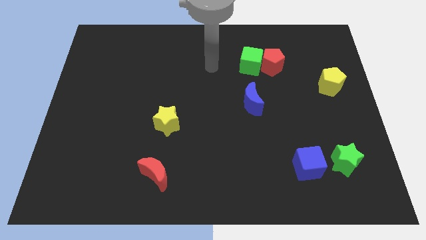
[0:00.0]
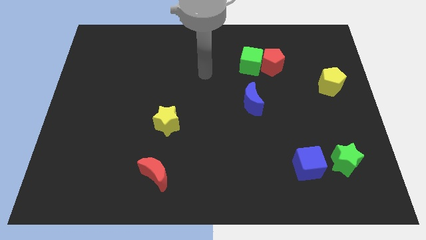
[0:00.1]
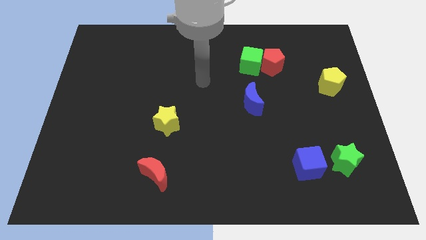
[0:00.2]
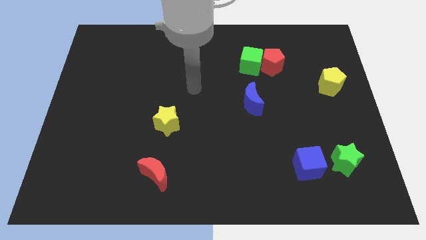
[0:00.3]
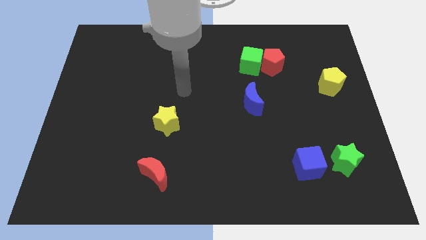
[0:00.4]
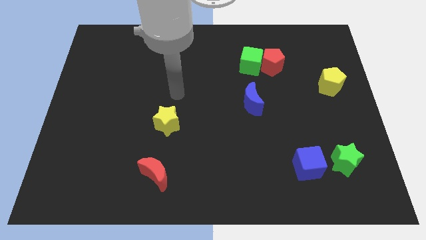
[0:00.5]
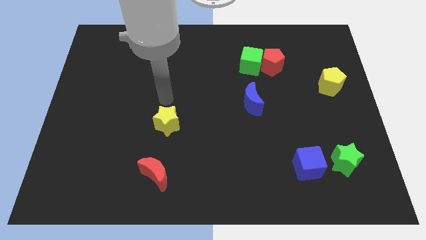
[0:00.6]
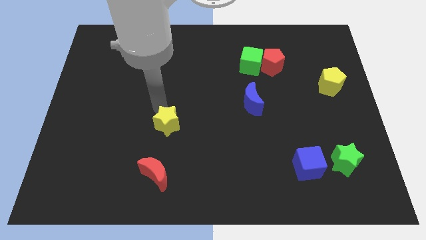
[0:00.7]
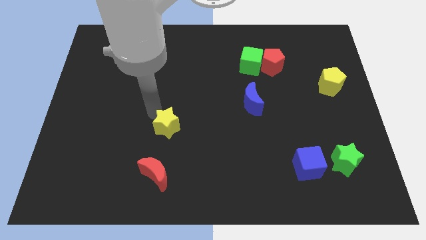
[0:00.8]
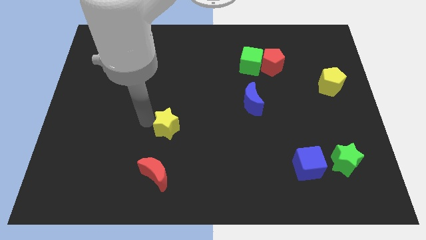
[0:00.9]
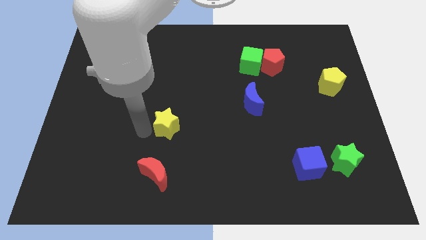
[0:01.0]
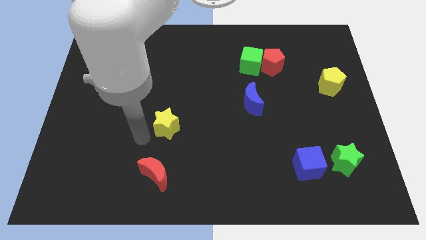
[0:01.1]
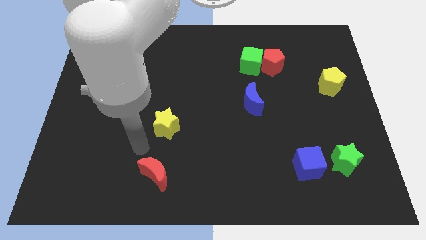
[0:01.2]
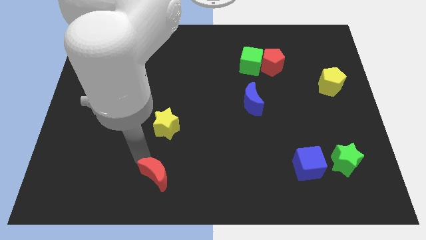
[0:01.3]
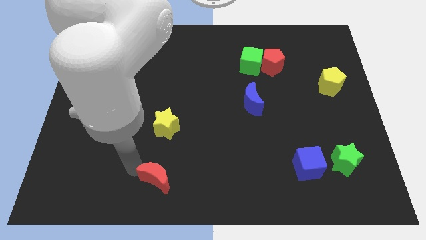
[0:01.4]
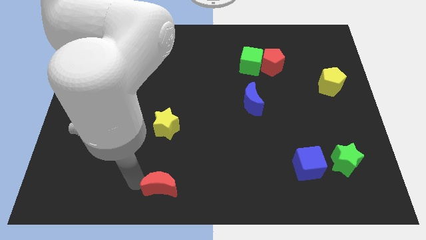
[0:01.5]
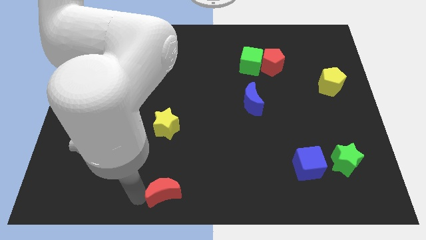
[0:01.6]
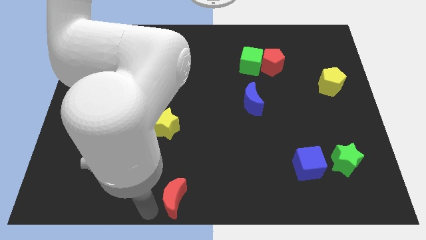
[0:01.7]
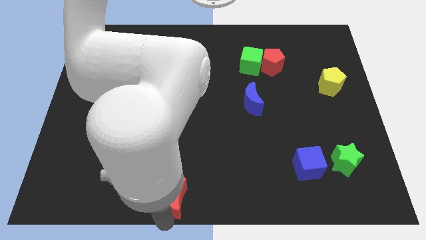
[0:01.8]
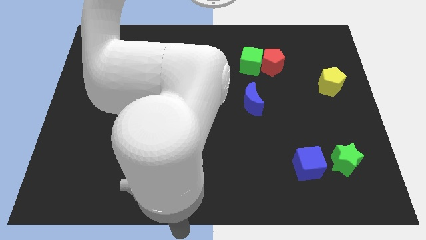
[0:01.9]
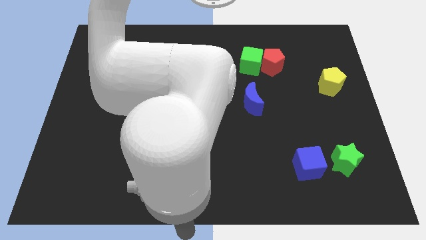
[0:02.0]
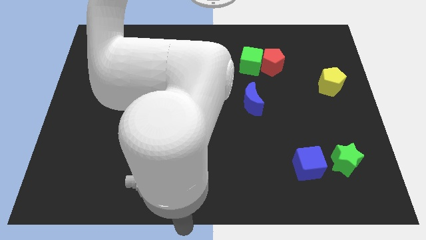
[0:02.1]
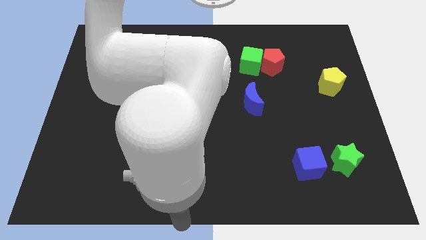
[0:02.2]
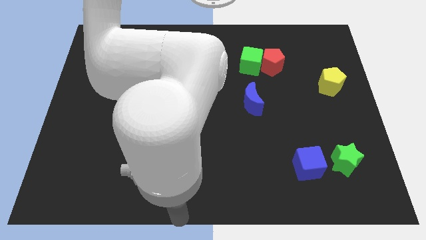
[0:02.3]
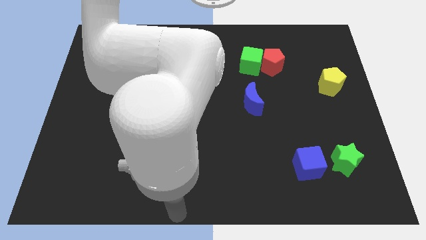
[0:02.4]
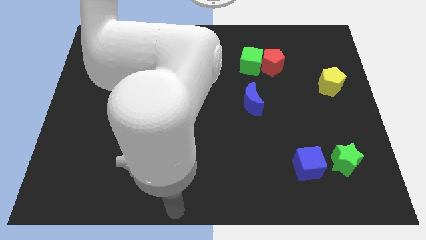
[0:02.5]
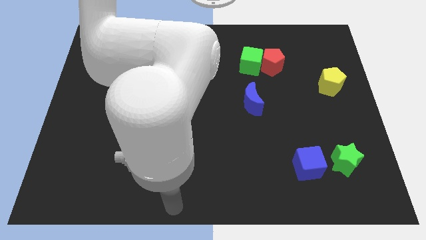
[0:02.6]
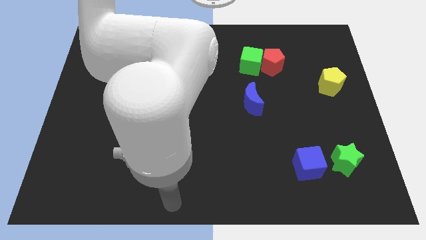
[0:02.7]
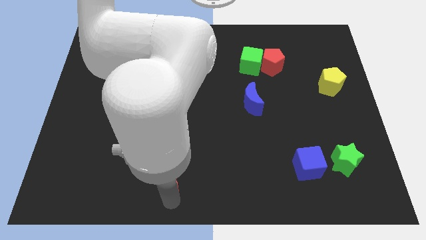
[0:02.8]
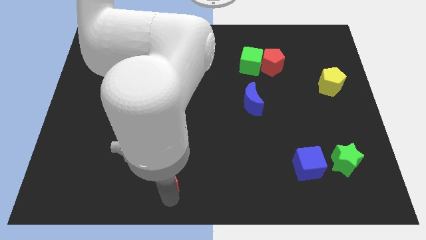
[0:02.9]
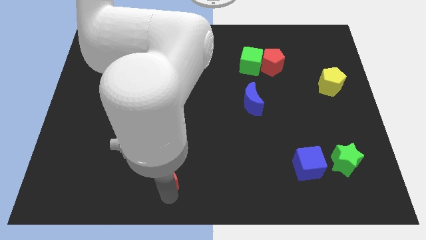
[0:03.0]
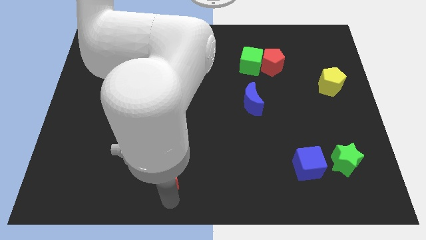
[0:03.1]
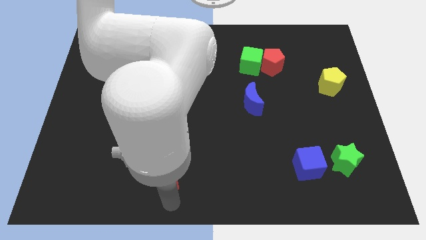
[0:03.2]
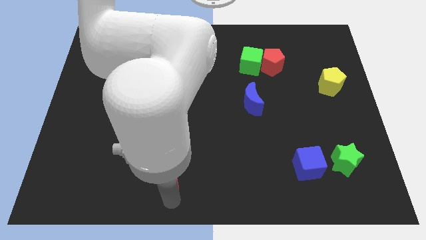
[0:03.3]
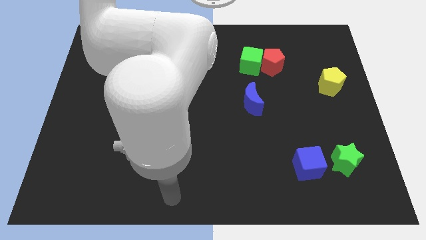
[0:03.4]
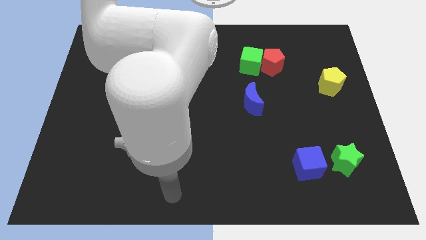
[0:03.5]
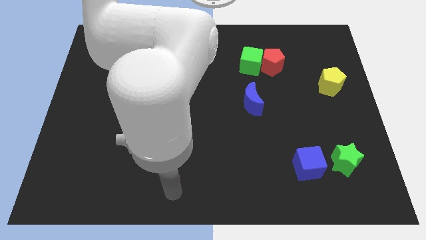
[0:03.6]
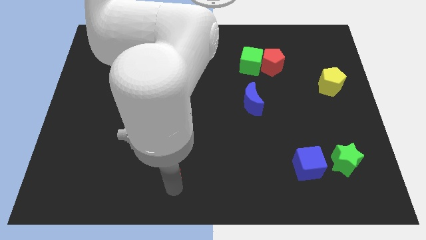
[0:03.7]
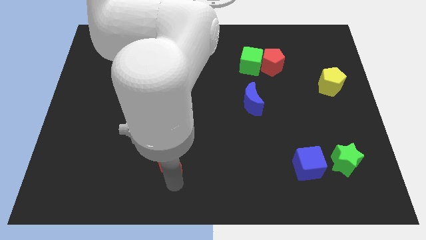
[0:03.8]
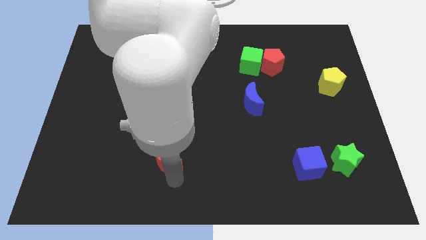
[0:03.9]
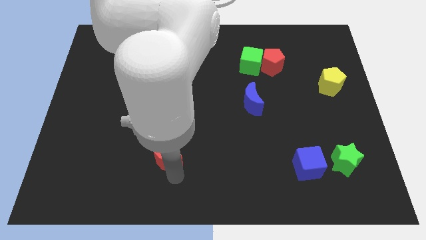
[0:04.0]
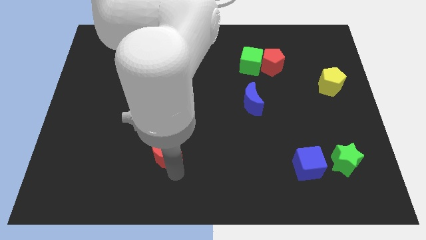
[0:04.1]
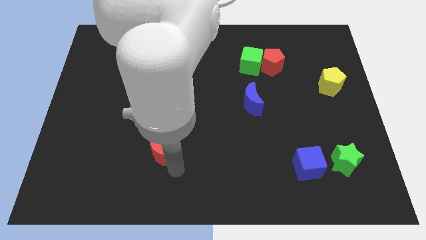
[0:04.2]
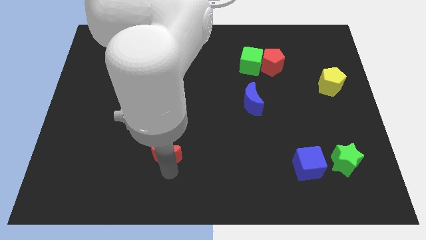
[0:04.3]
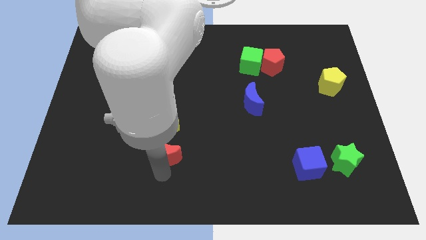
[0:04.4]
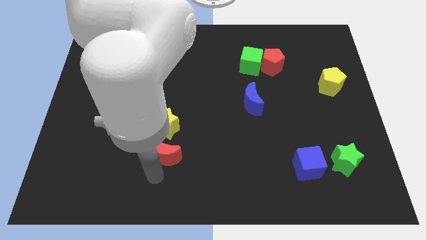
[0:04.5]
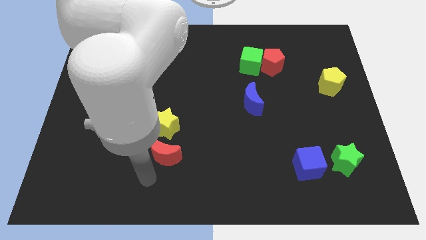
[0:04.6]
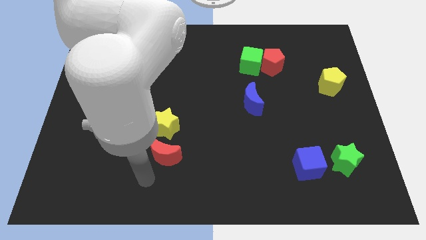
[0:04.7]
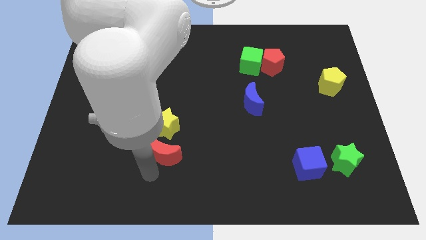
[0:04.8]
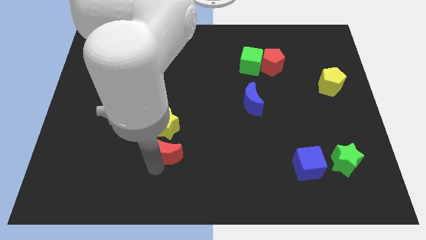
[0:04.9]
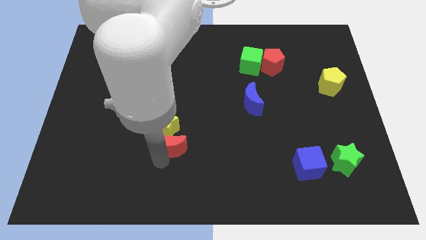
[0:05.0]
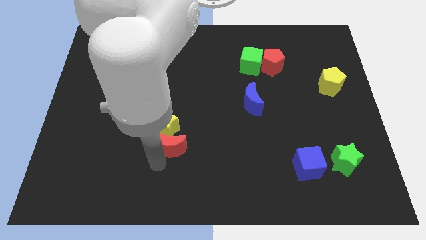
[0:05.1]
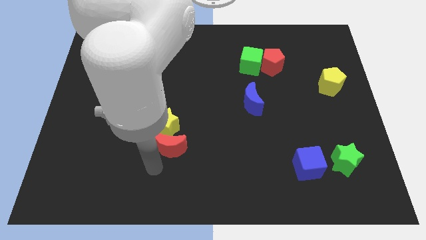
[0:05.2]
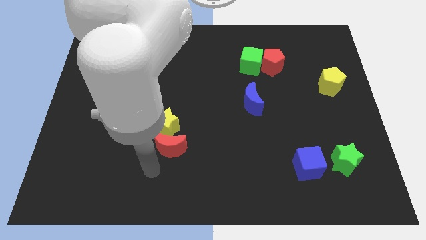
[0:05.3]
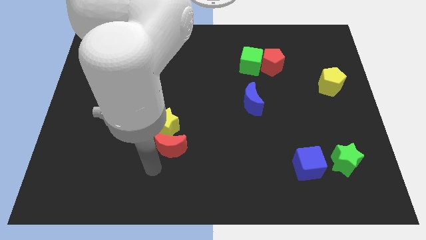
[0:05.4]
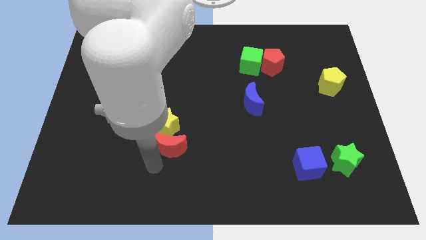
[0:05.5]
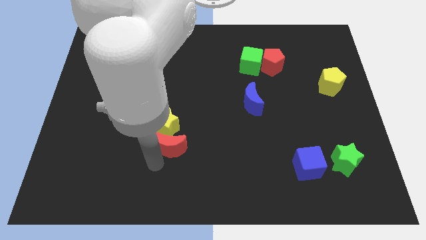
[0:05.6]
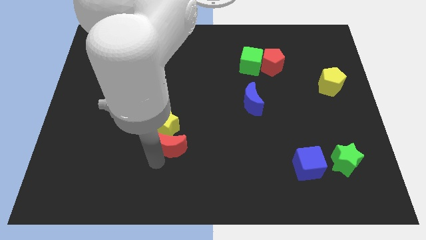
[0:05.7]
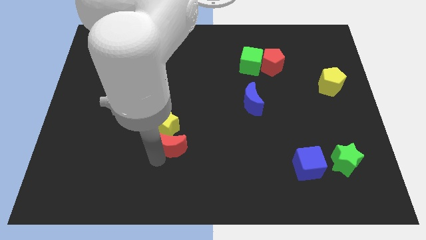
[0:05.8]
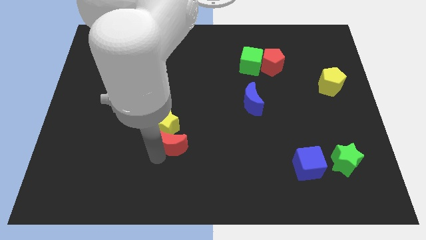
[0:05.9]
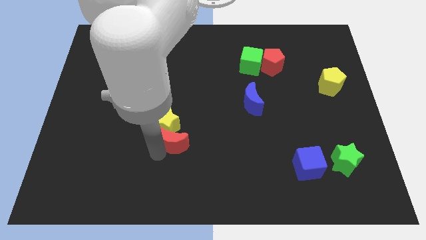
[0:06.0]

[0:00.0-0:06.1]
slightly slide the red moon upwards

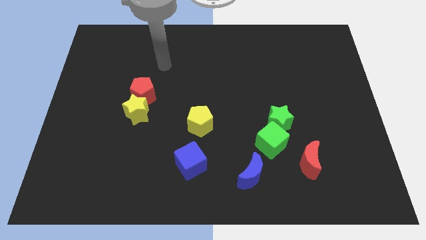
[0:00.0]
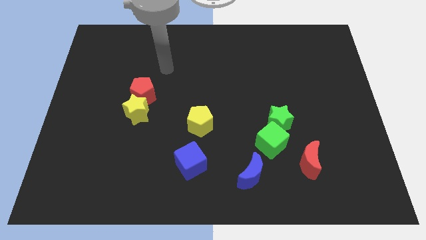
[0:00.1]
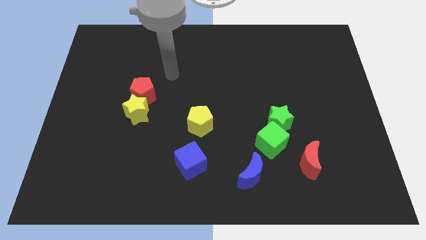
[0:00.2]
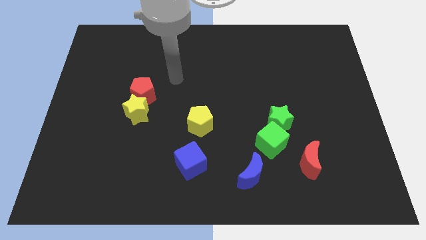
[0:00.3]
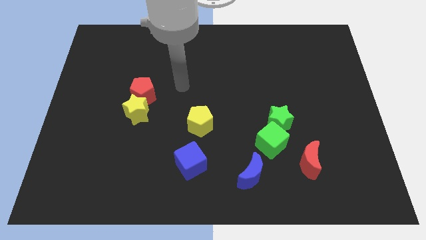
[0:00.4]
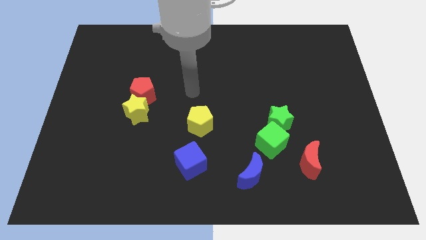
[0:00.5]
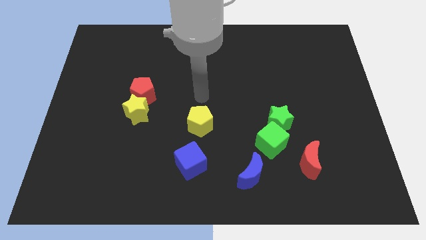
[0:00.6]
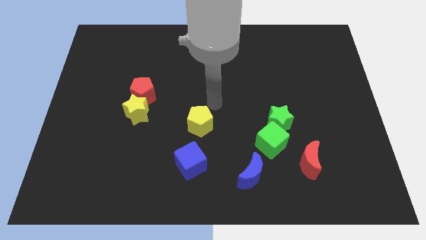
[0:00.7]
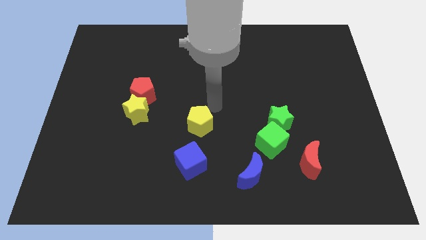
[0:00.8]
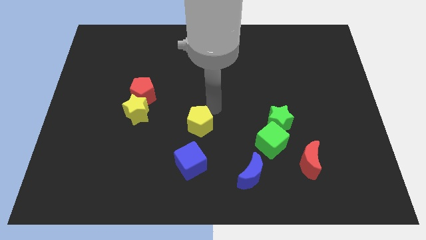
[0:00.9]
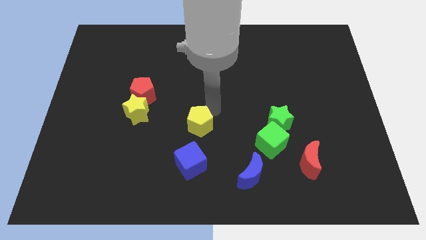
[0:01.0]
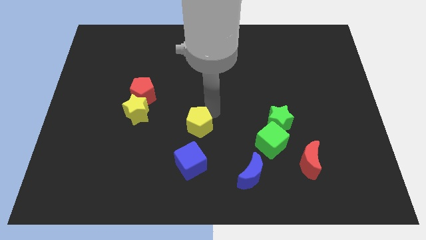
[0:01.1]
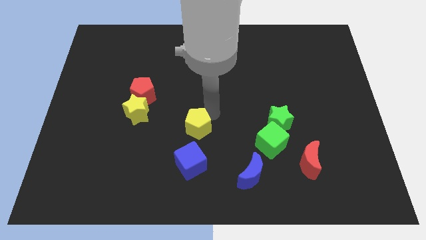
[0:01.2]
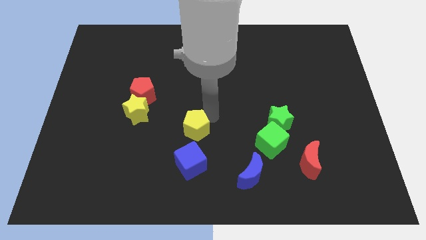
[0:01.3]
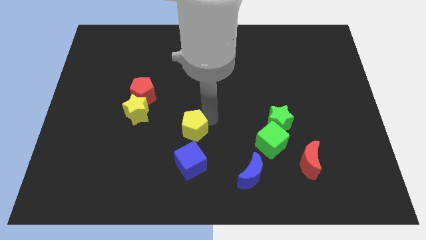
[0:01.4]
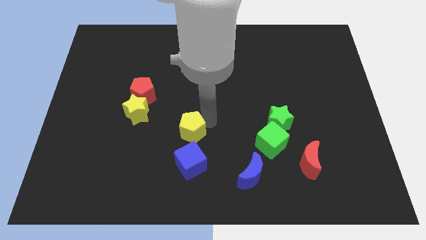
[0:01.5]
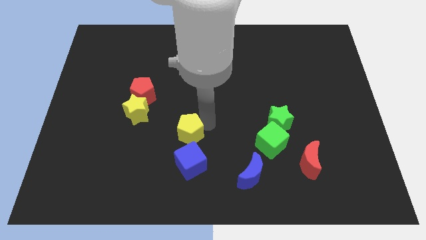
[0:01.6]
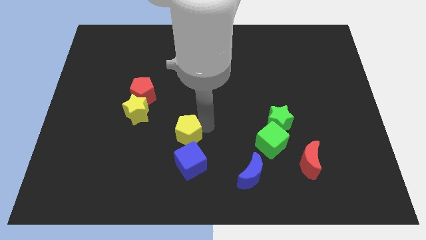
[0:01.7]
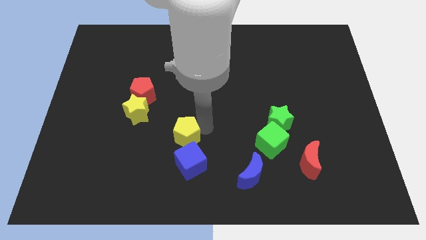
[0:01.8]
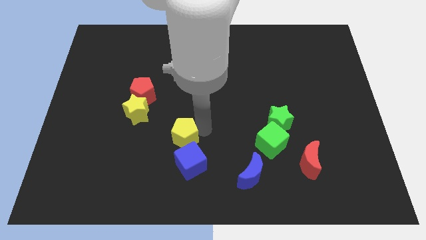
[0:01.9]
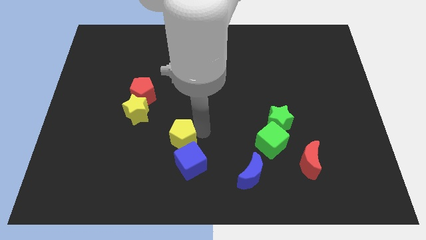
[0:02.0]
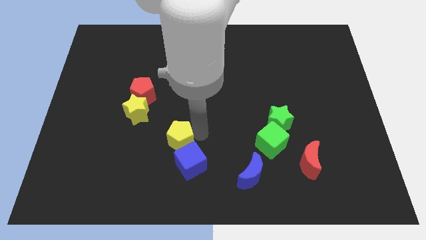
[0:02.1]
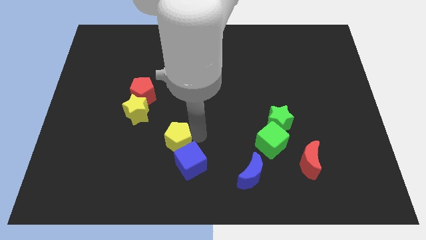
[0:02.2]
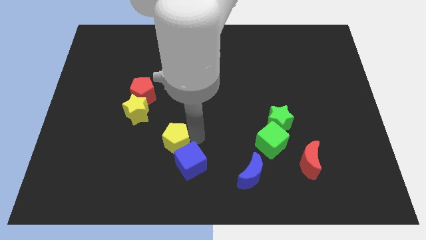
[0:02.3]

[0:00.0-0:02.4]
move the yellow pentagon a little bit downwards and then left
